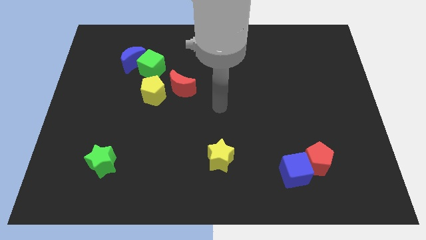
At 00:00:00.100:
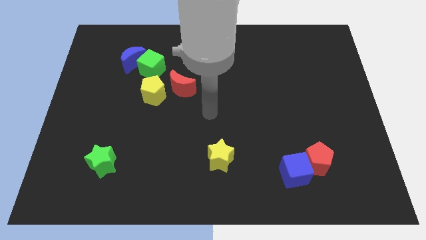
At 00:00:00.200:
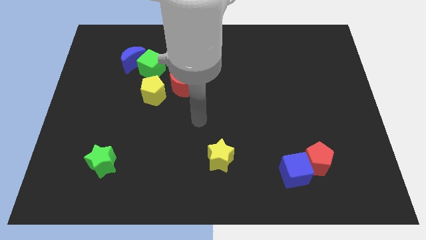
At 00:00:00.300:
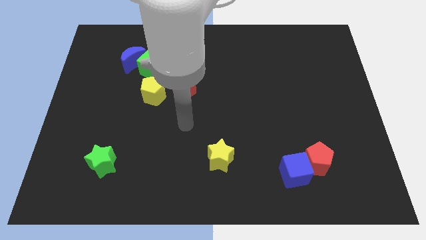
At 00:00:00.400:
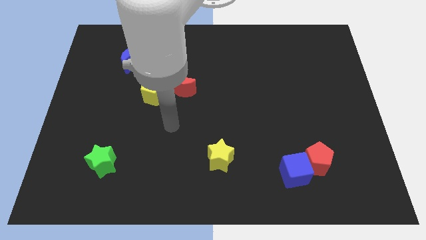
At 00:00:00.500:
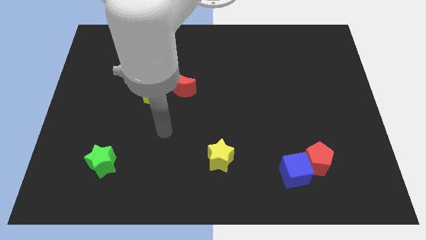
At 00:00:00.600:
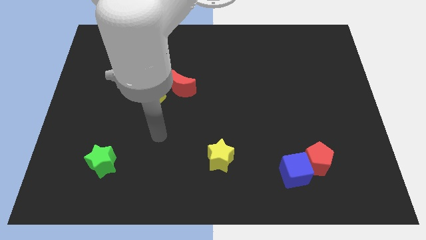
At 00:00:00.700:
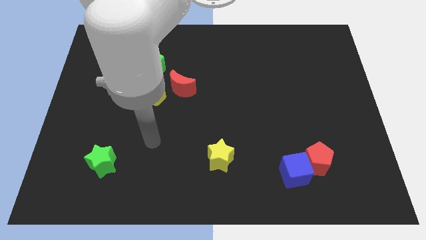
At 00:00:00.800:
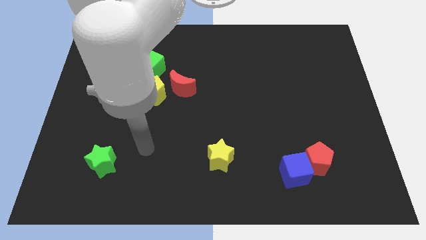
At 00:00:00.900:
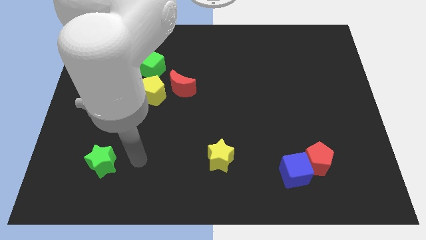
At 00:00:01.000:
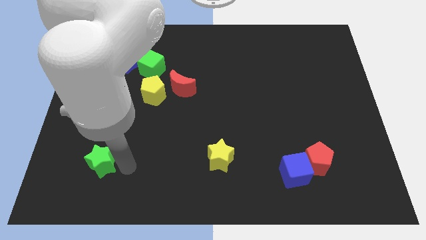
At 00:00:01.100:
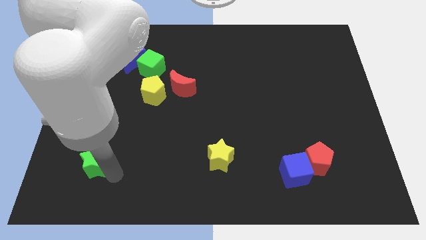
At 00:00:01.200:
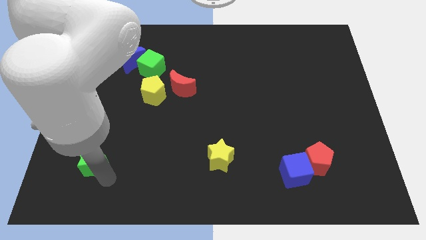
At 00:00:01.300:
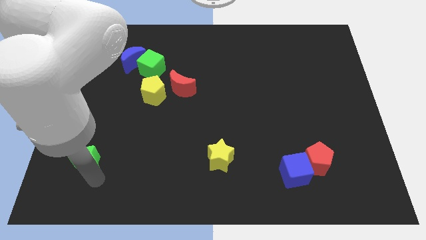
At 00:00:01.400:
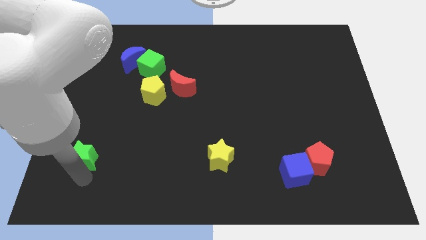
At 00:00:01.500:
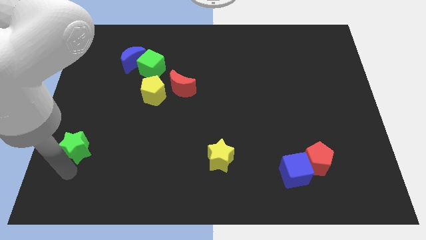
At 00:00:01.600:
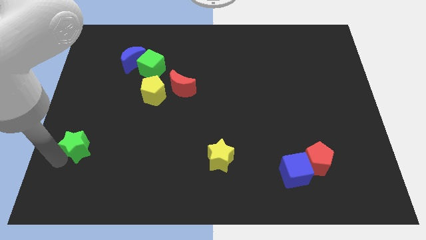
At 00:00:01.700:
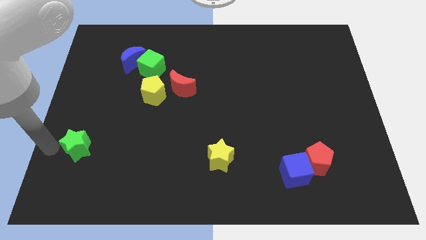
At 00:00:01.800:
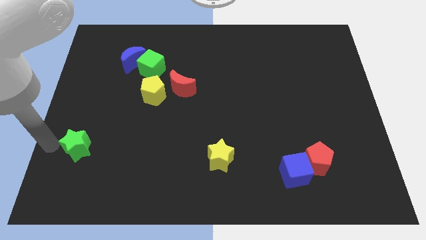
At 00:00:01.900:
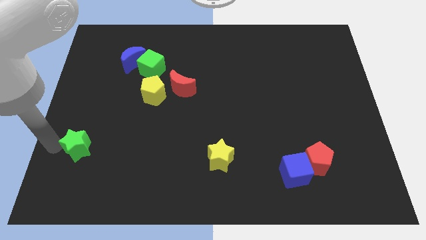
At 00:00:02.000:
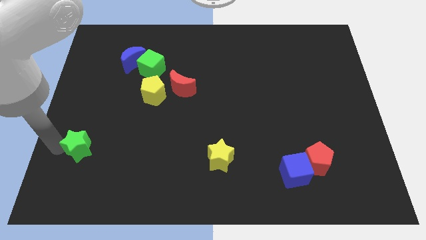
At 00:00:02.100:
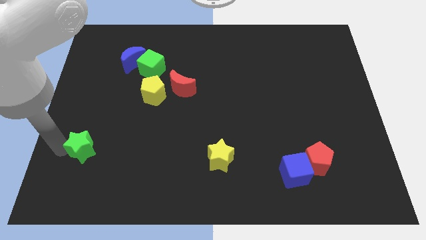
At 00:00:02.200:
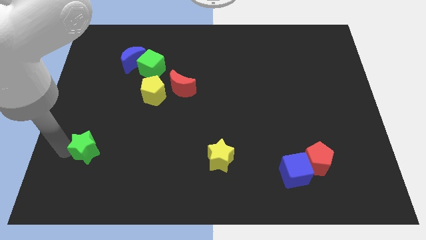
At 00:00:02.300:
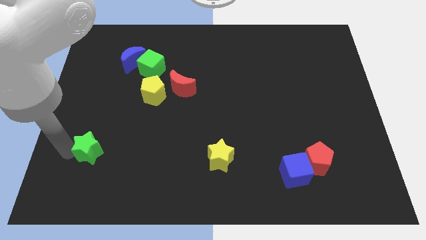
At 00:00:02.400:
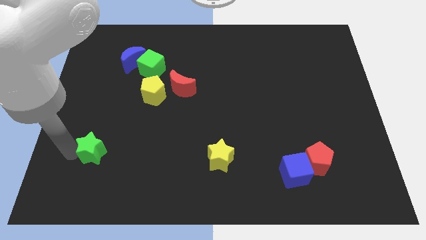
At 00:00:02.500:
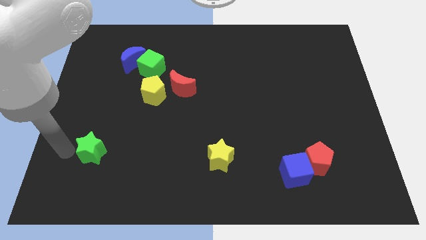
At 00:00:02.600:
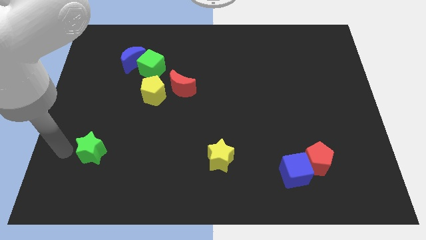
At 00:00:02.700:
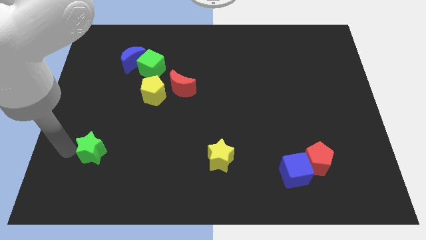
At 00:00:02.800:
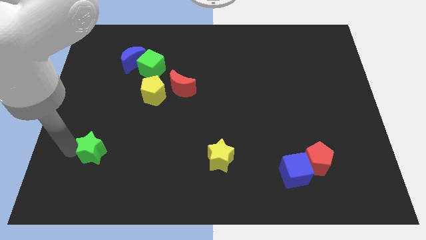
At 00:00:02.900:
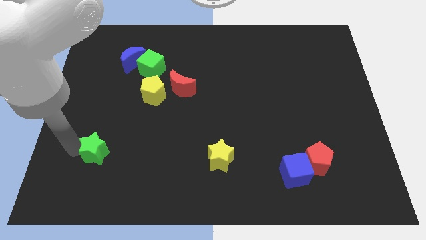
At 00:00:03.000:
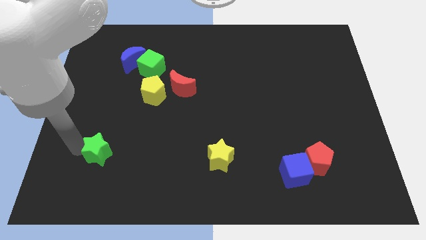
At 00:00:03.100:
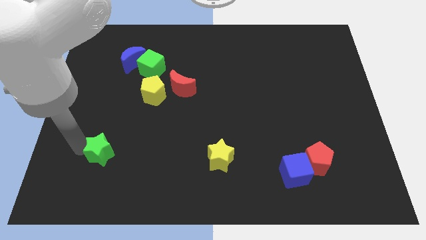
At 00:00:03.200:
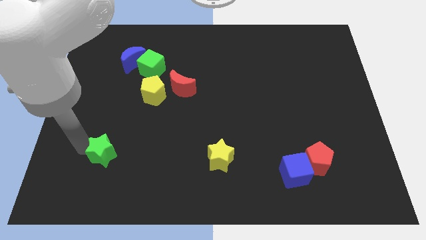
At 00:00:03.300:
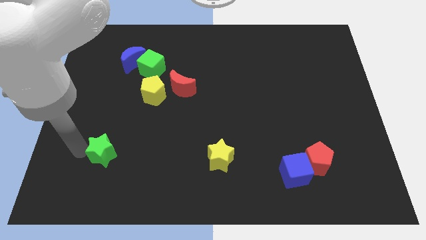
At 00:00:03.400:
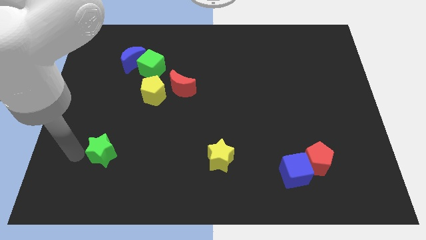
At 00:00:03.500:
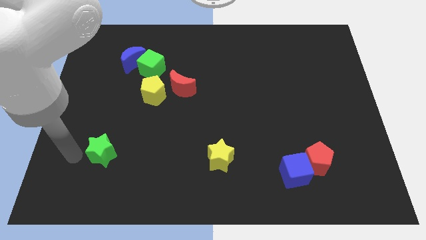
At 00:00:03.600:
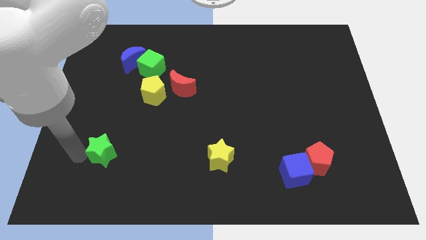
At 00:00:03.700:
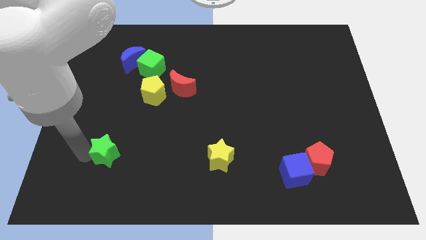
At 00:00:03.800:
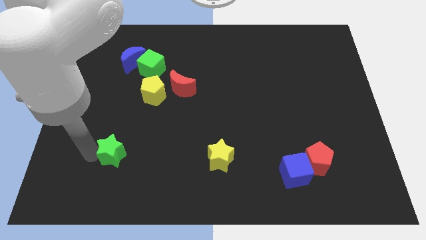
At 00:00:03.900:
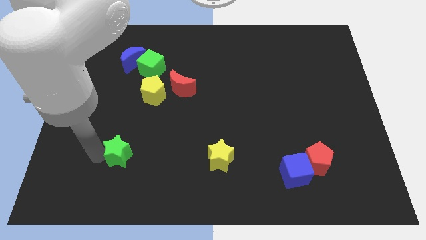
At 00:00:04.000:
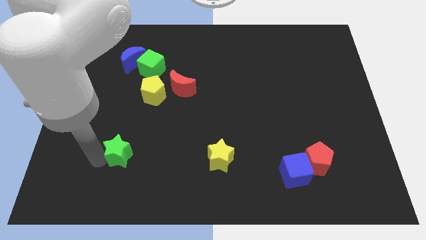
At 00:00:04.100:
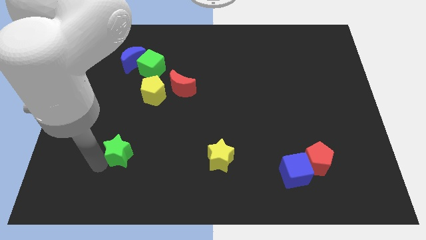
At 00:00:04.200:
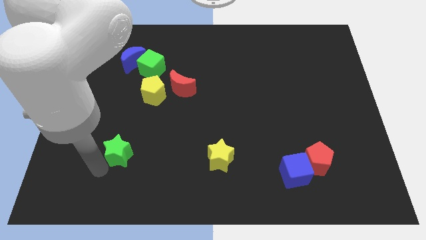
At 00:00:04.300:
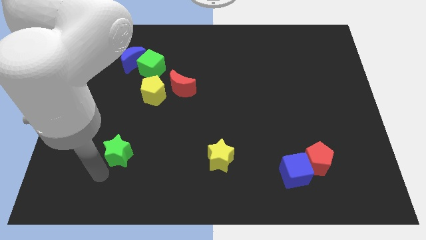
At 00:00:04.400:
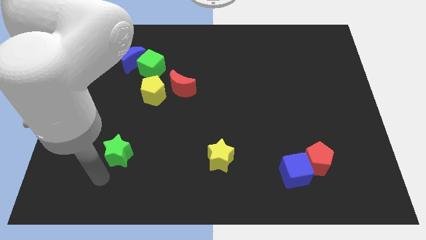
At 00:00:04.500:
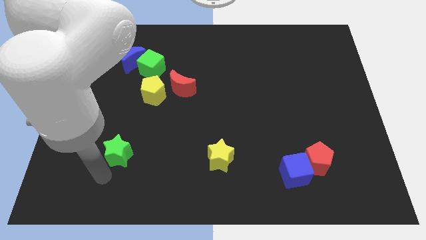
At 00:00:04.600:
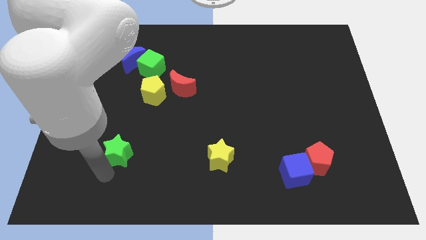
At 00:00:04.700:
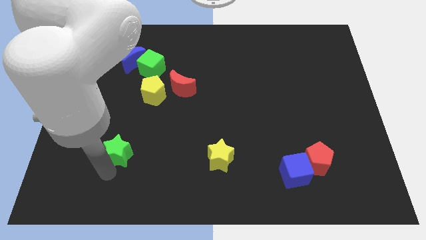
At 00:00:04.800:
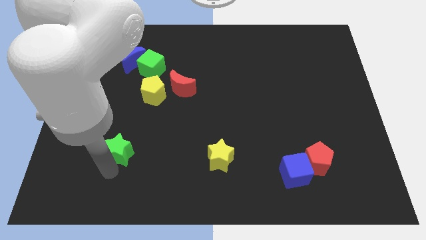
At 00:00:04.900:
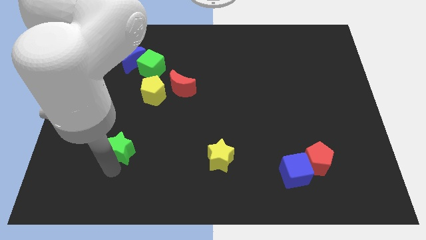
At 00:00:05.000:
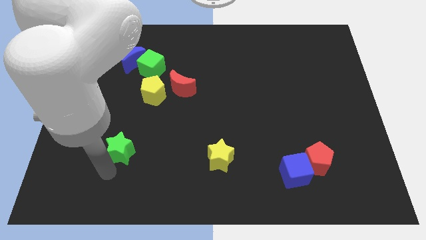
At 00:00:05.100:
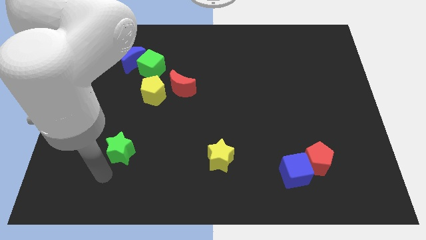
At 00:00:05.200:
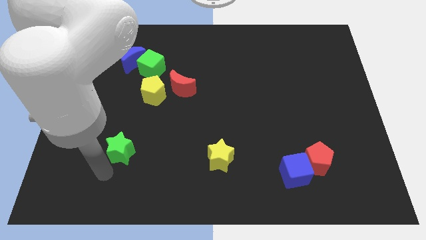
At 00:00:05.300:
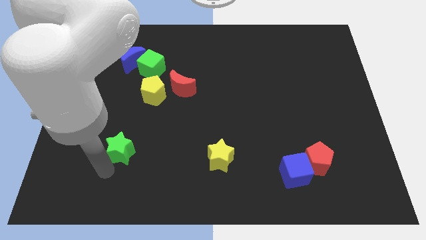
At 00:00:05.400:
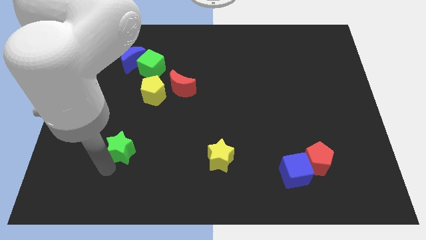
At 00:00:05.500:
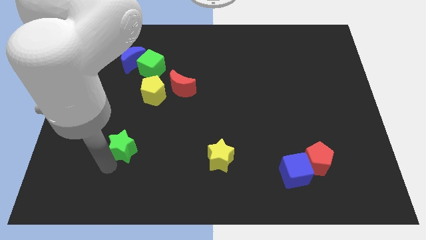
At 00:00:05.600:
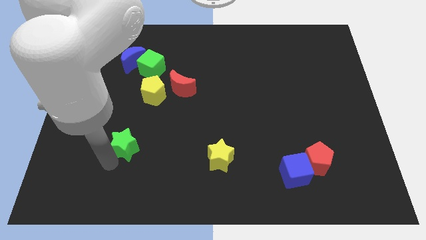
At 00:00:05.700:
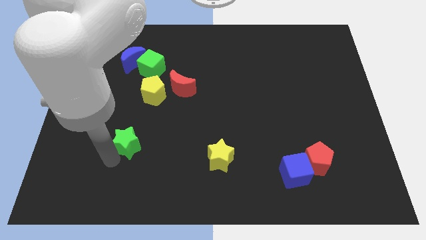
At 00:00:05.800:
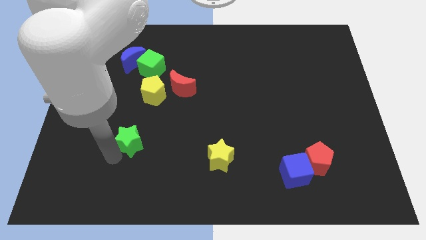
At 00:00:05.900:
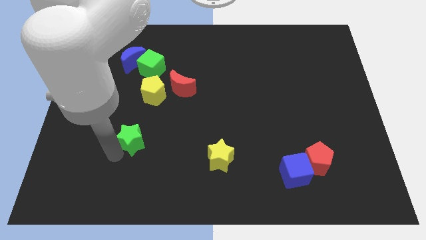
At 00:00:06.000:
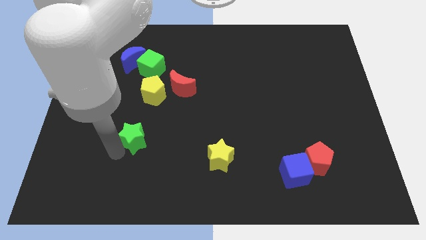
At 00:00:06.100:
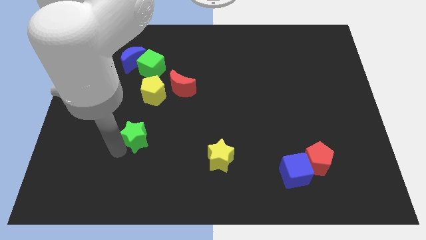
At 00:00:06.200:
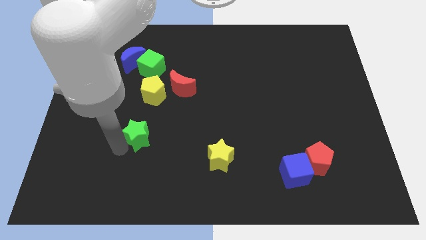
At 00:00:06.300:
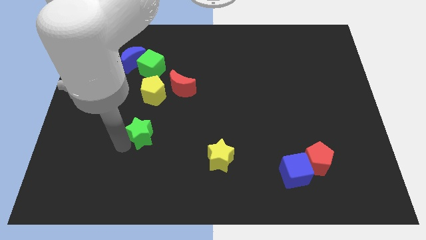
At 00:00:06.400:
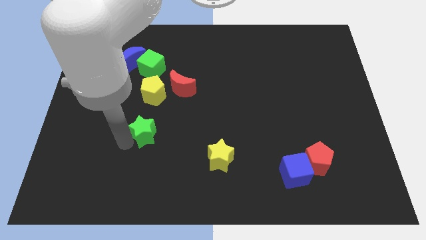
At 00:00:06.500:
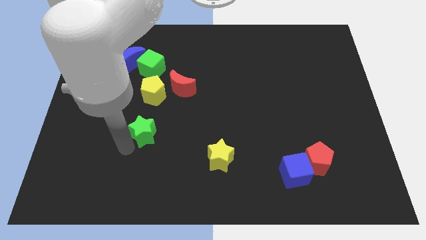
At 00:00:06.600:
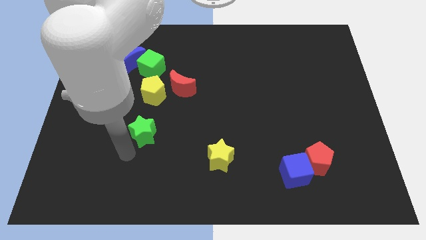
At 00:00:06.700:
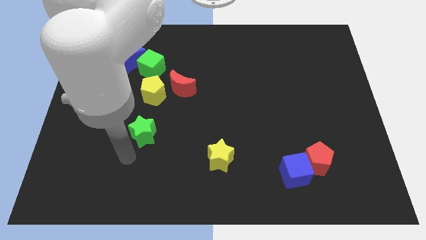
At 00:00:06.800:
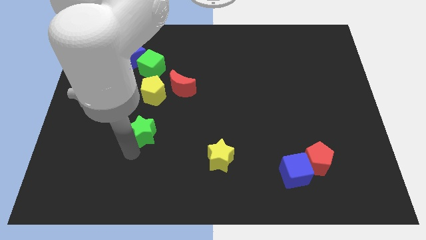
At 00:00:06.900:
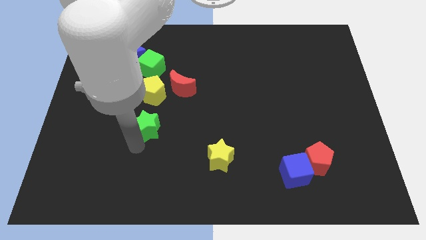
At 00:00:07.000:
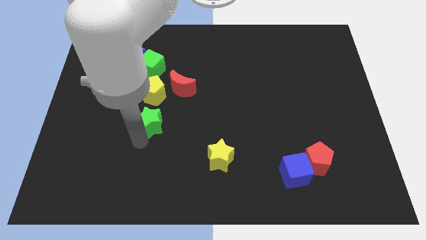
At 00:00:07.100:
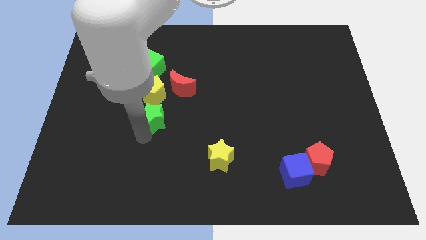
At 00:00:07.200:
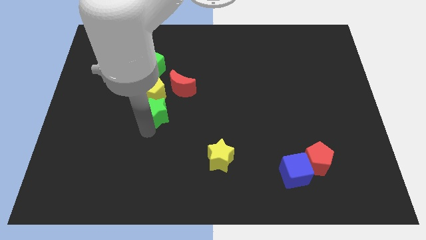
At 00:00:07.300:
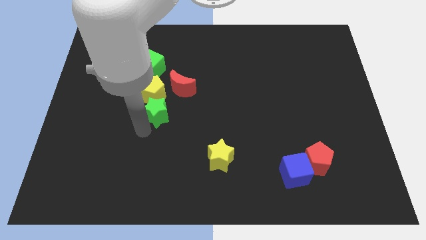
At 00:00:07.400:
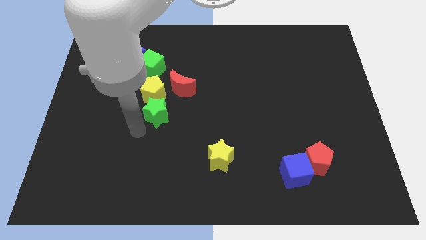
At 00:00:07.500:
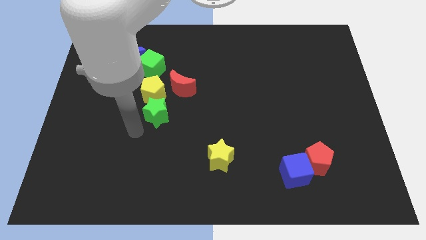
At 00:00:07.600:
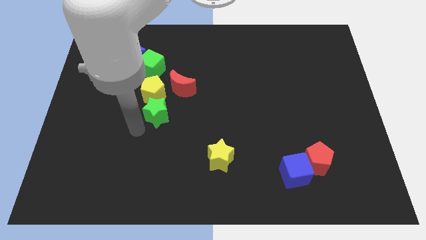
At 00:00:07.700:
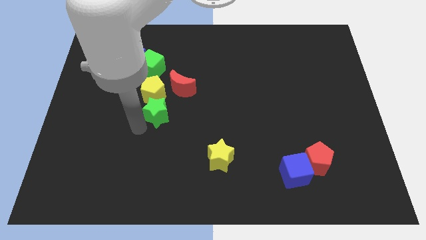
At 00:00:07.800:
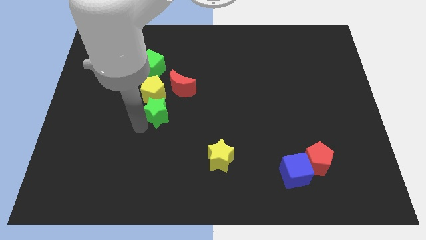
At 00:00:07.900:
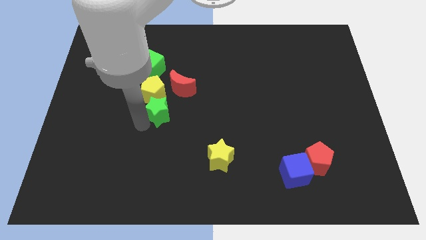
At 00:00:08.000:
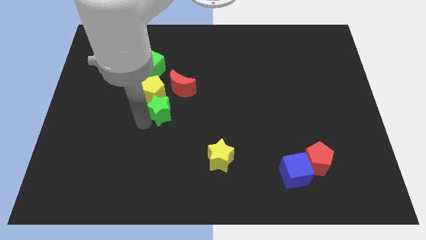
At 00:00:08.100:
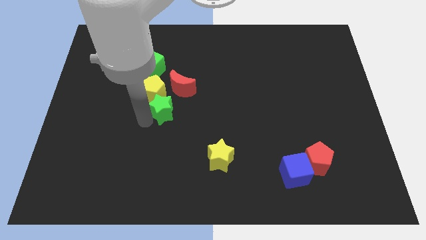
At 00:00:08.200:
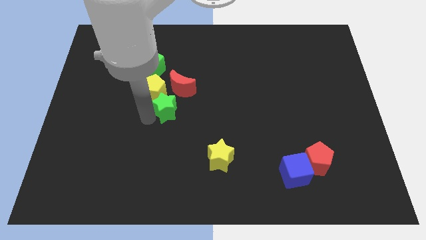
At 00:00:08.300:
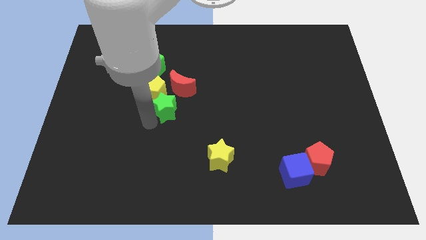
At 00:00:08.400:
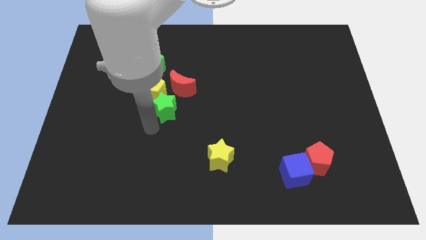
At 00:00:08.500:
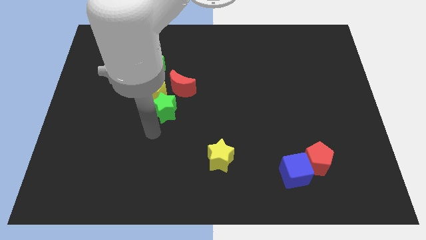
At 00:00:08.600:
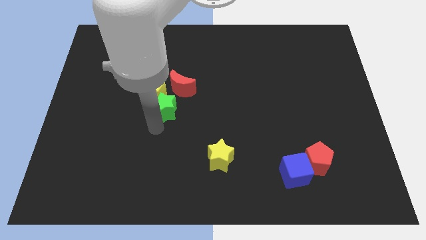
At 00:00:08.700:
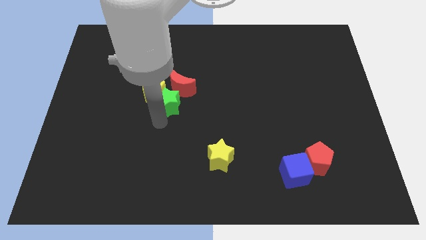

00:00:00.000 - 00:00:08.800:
slide the green star to the red moon
